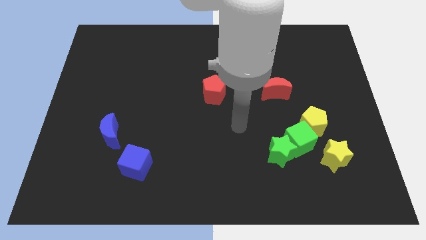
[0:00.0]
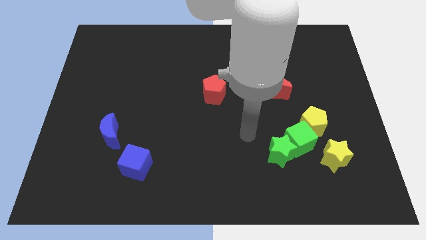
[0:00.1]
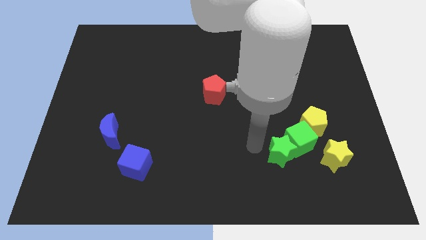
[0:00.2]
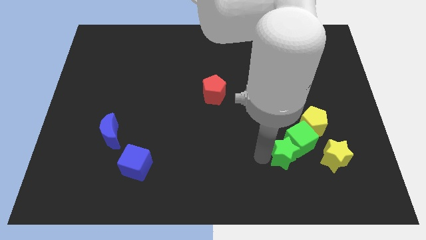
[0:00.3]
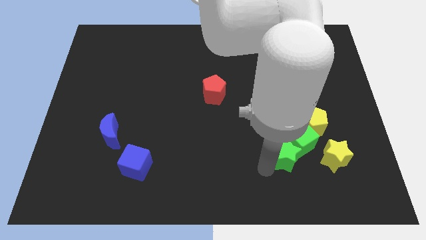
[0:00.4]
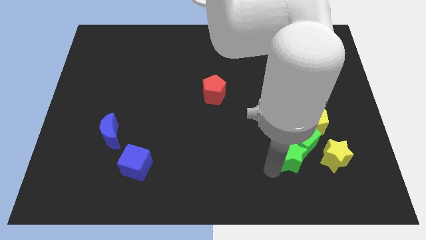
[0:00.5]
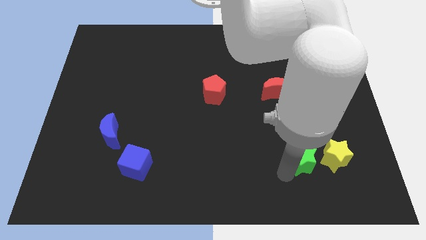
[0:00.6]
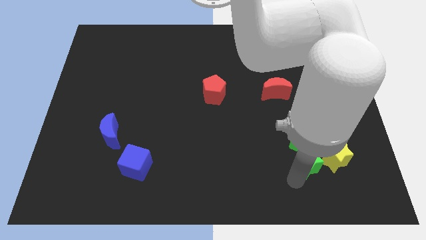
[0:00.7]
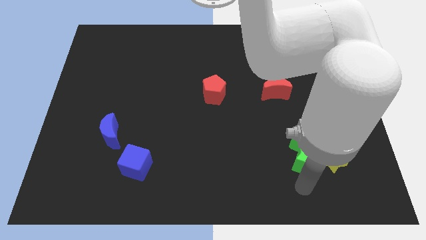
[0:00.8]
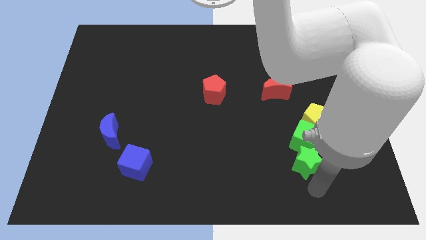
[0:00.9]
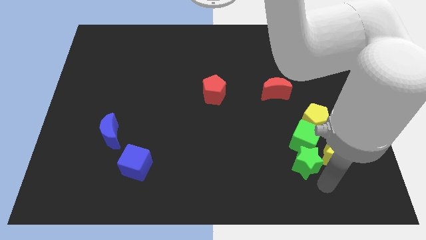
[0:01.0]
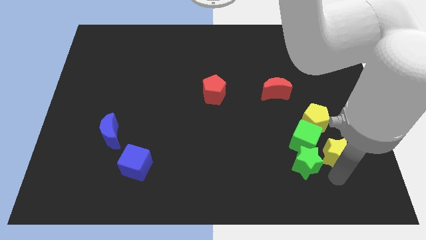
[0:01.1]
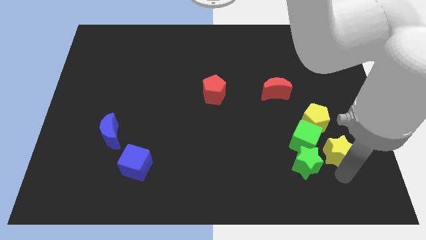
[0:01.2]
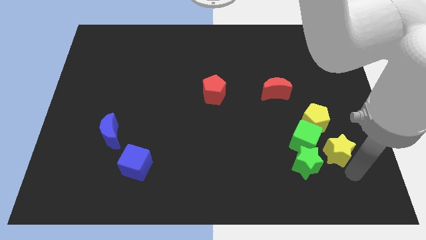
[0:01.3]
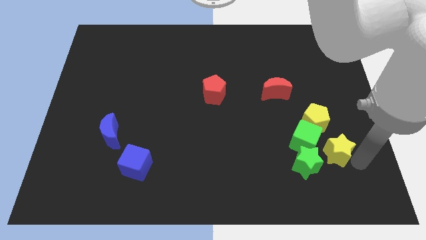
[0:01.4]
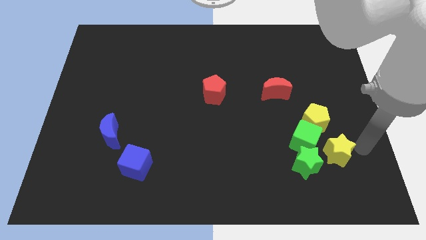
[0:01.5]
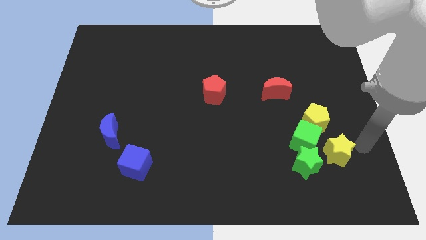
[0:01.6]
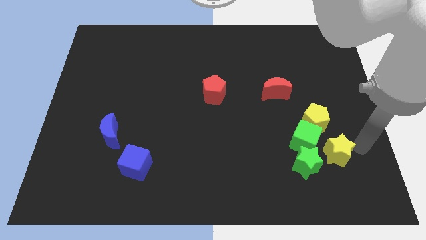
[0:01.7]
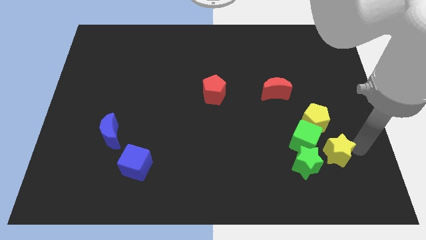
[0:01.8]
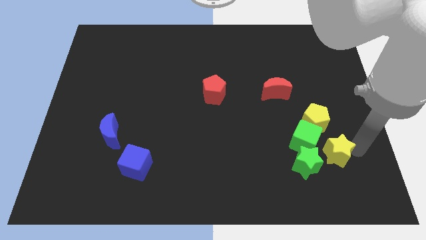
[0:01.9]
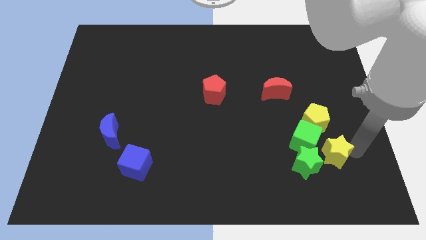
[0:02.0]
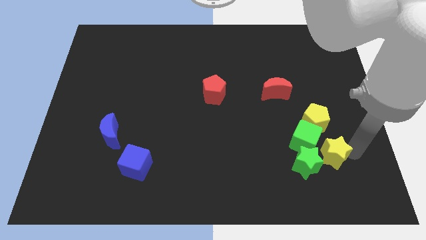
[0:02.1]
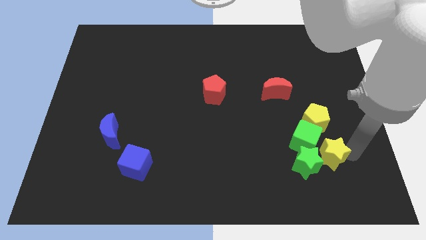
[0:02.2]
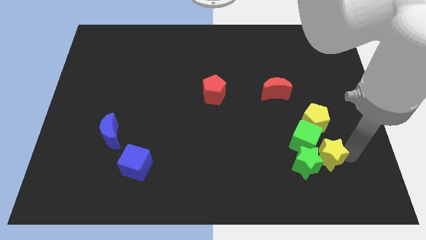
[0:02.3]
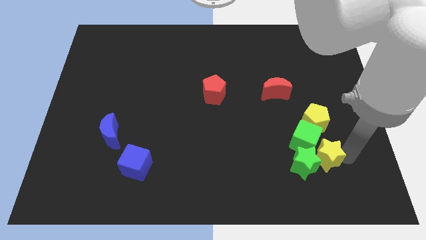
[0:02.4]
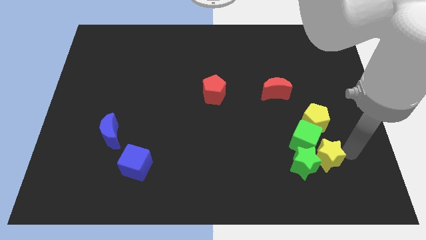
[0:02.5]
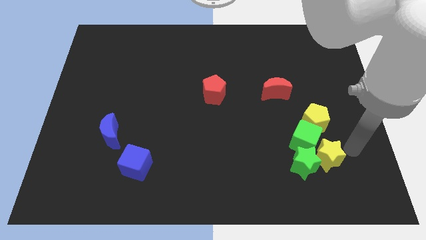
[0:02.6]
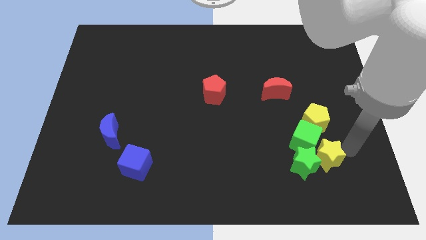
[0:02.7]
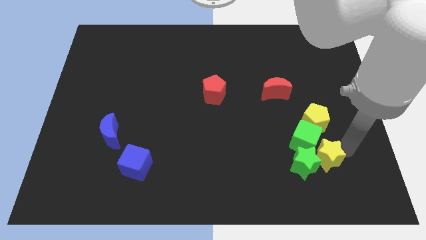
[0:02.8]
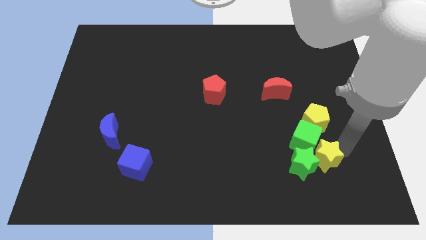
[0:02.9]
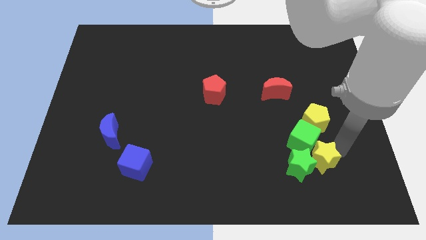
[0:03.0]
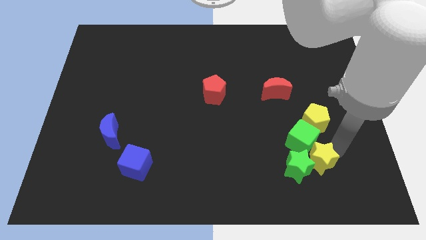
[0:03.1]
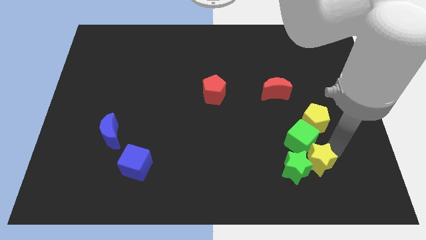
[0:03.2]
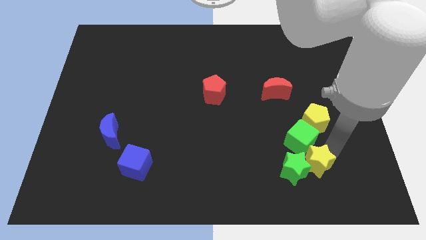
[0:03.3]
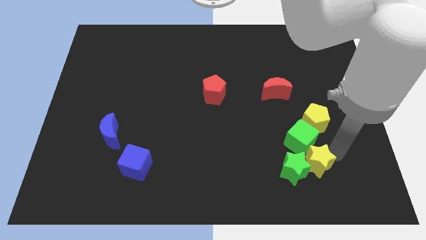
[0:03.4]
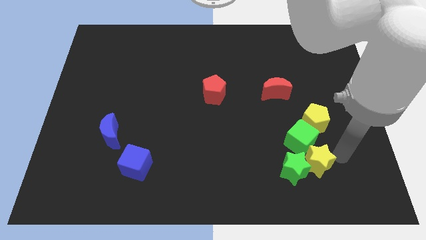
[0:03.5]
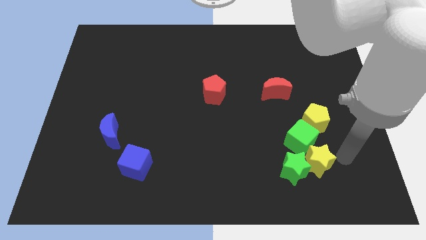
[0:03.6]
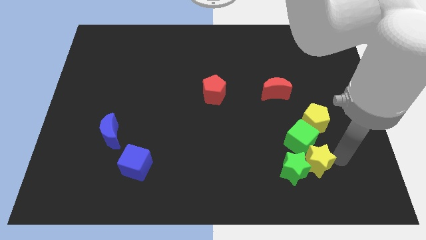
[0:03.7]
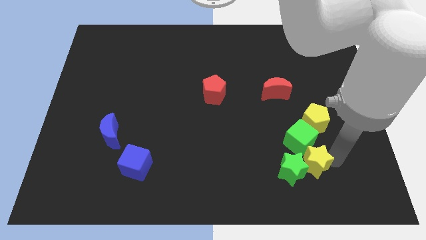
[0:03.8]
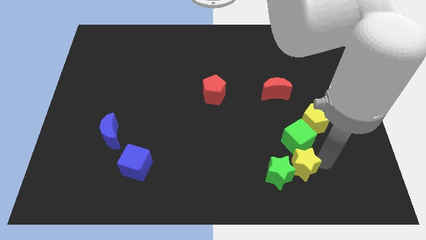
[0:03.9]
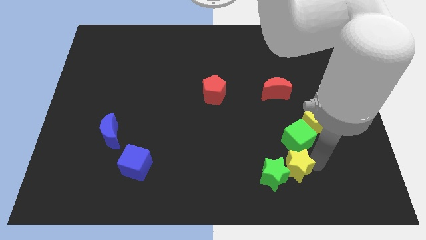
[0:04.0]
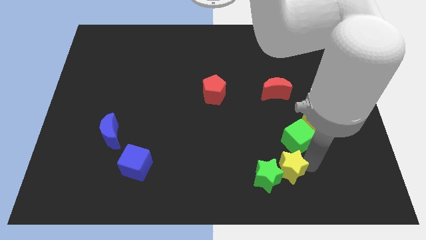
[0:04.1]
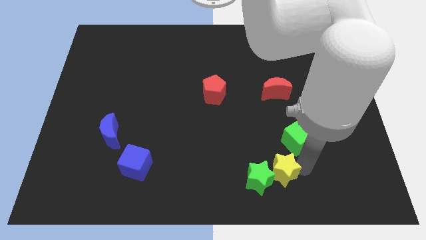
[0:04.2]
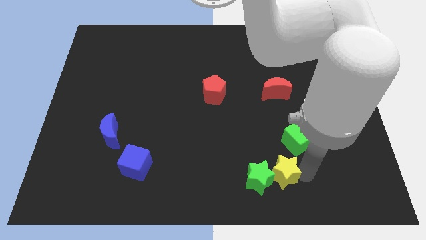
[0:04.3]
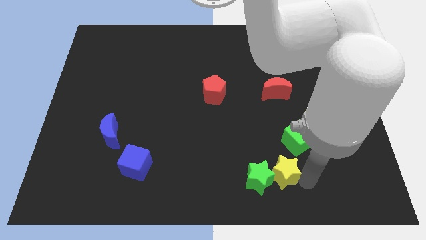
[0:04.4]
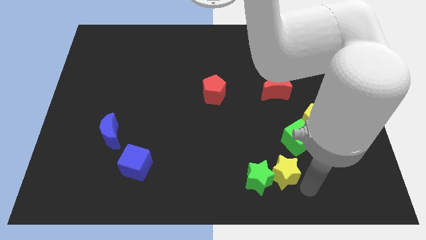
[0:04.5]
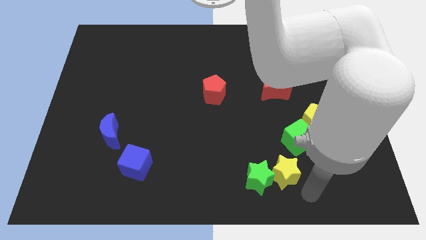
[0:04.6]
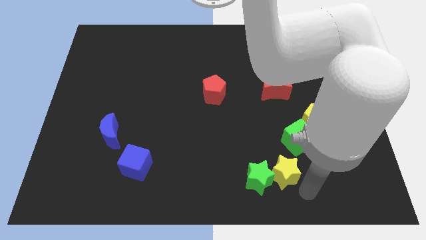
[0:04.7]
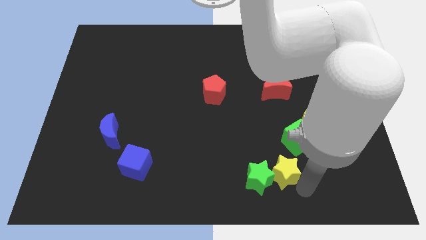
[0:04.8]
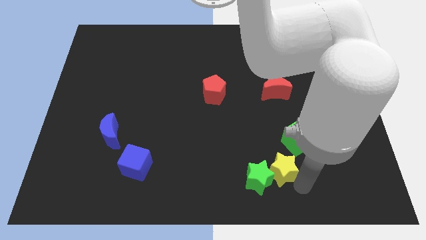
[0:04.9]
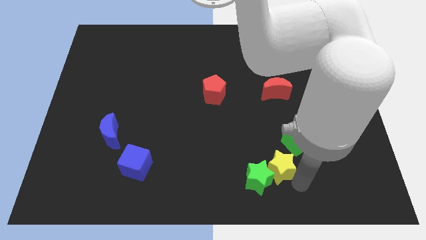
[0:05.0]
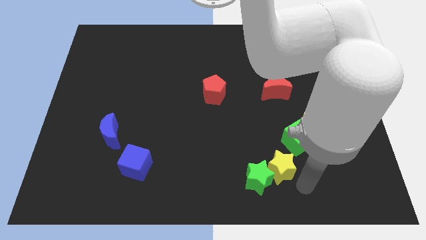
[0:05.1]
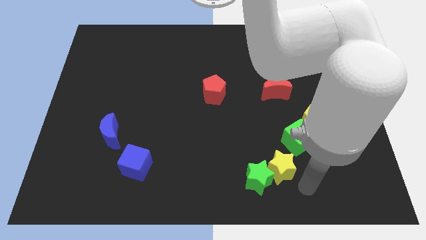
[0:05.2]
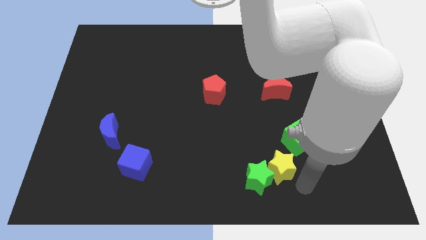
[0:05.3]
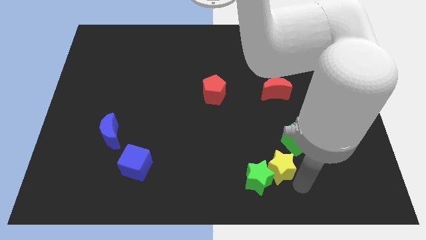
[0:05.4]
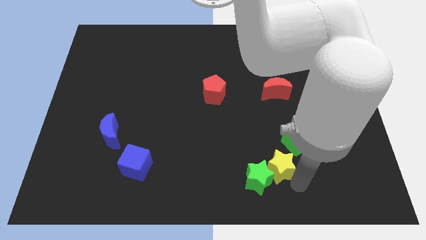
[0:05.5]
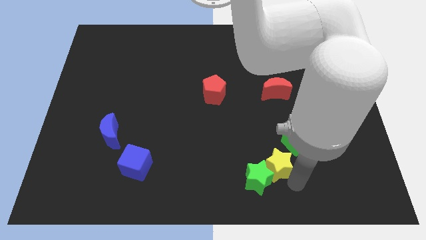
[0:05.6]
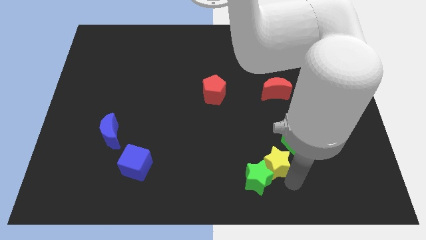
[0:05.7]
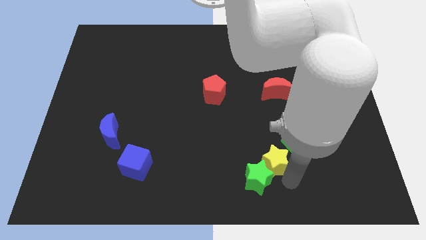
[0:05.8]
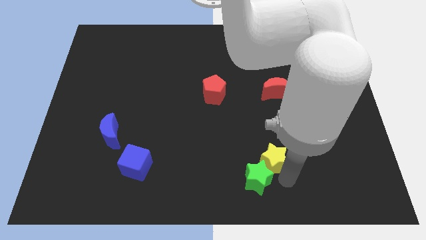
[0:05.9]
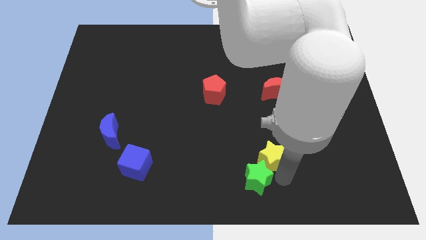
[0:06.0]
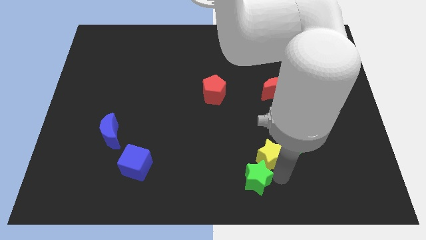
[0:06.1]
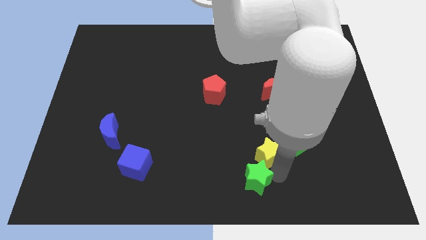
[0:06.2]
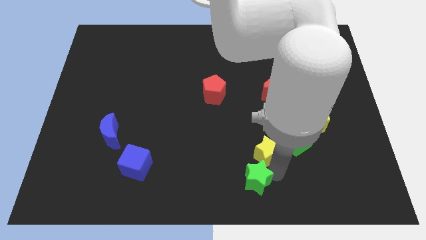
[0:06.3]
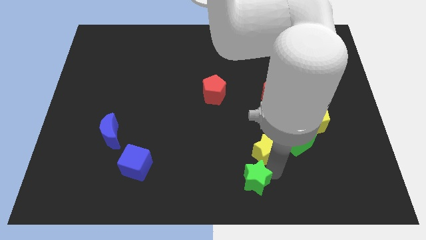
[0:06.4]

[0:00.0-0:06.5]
move the yellow star somewhat up and to the left diagonally

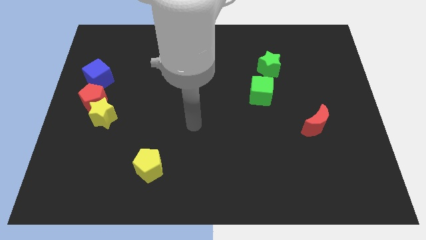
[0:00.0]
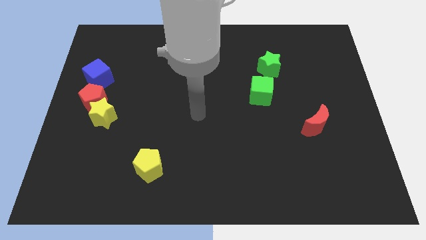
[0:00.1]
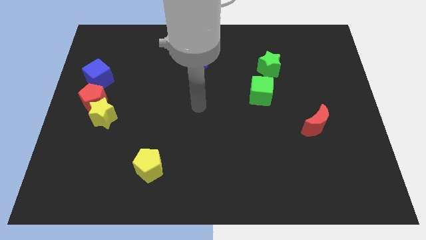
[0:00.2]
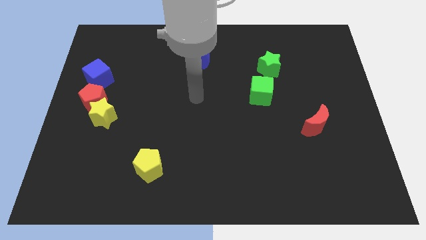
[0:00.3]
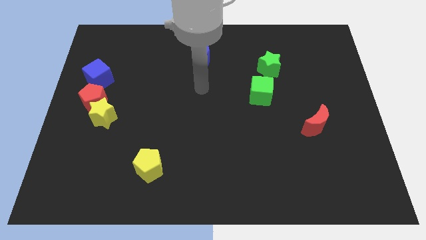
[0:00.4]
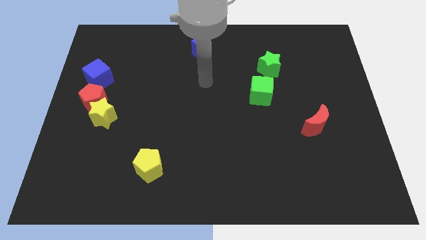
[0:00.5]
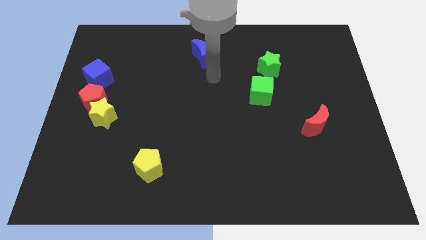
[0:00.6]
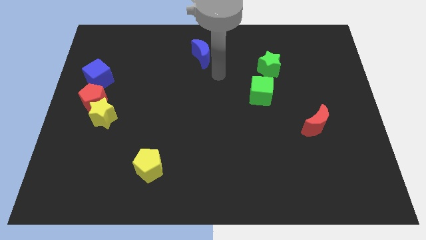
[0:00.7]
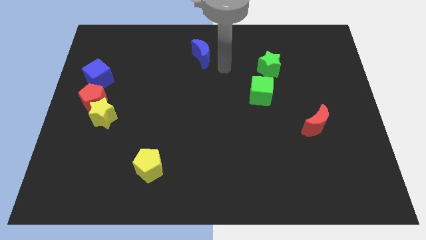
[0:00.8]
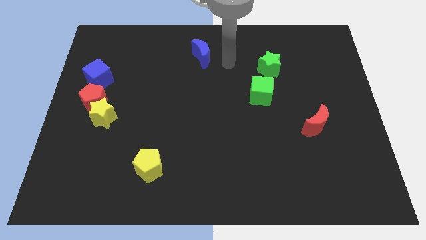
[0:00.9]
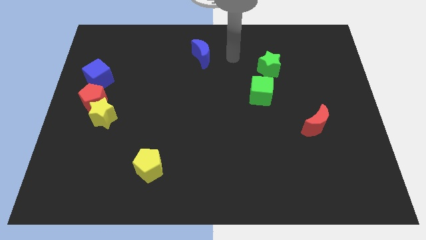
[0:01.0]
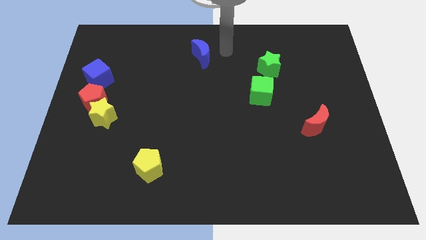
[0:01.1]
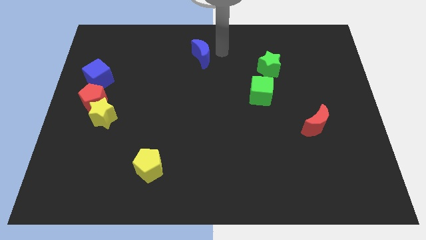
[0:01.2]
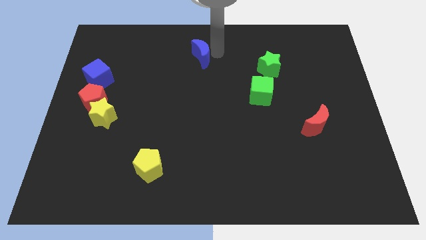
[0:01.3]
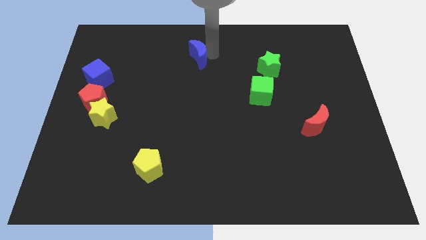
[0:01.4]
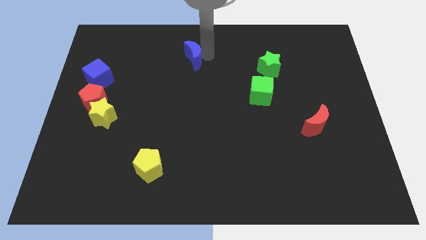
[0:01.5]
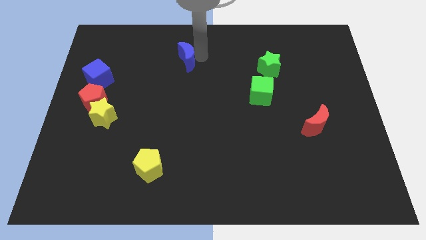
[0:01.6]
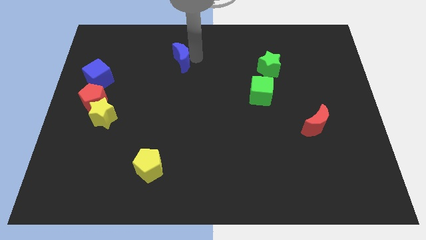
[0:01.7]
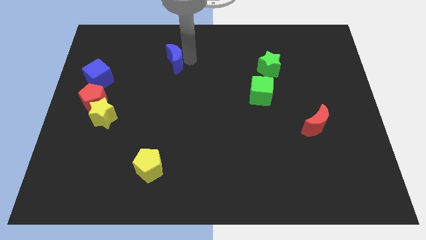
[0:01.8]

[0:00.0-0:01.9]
slightly push the blue moon left
